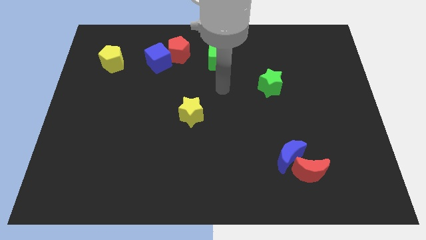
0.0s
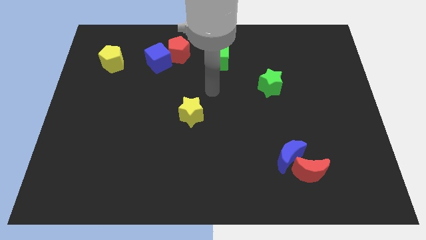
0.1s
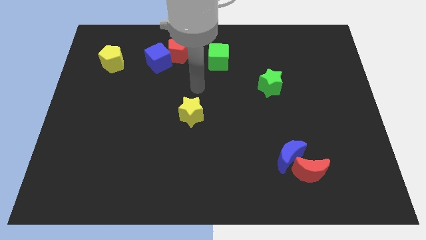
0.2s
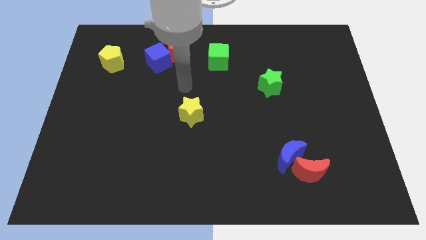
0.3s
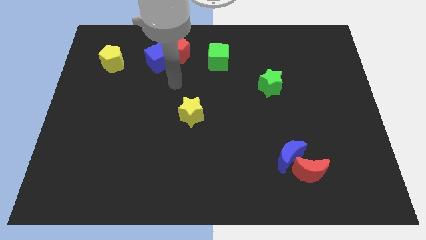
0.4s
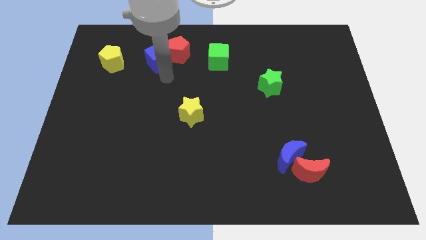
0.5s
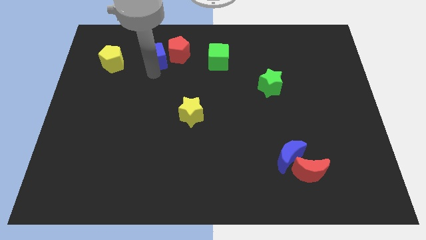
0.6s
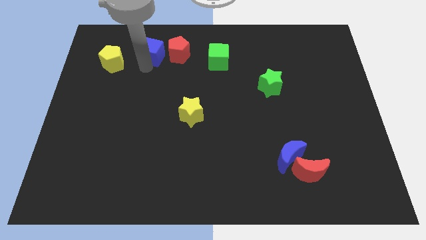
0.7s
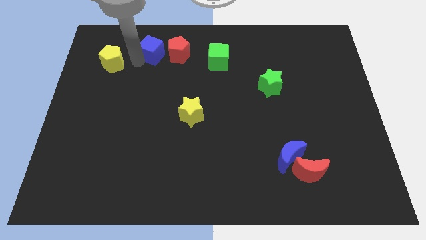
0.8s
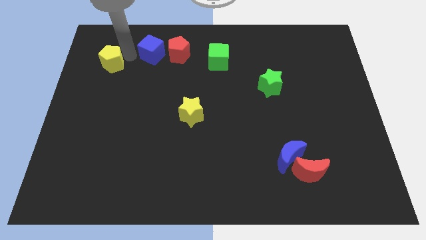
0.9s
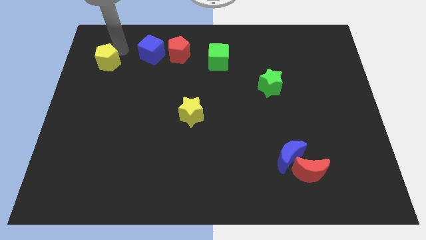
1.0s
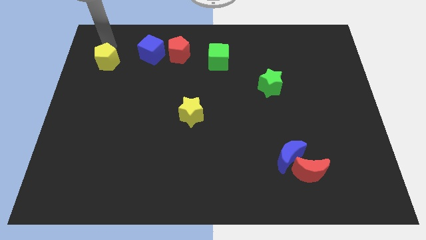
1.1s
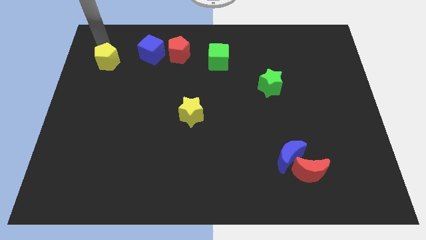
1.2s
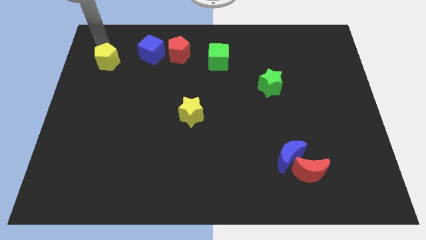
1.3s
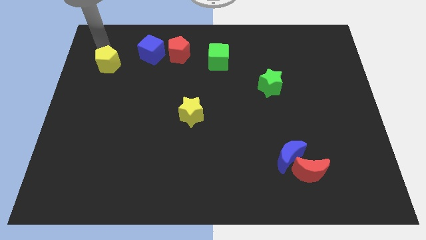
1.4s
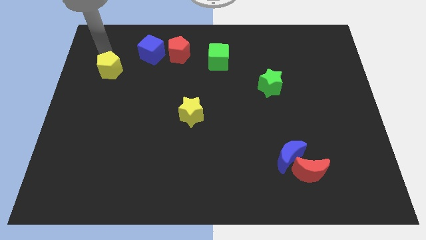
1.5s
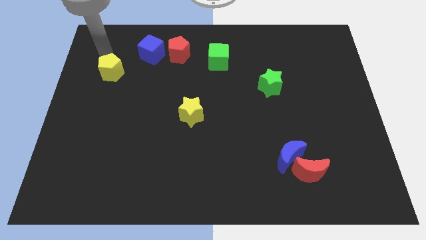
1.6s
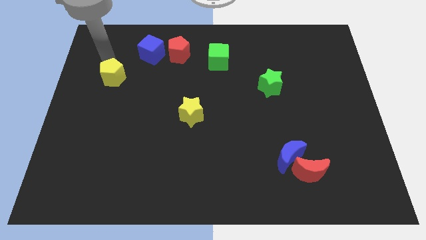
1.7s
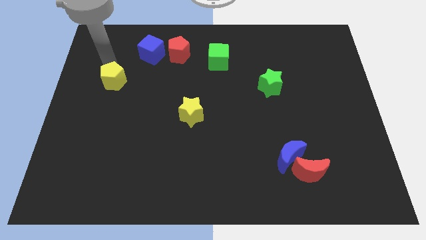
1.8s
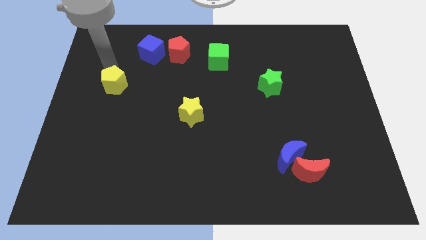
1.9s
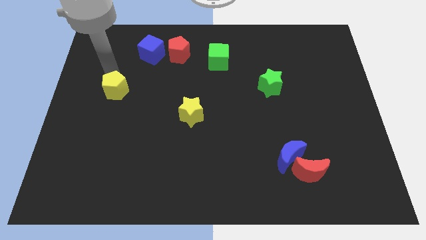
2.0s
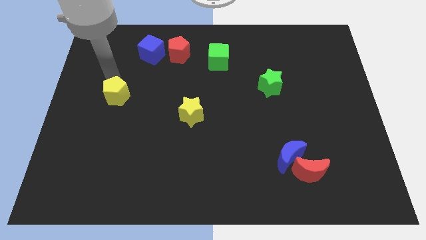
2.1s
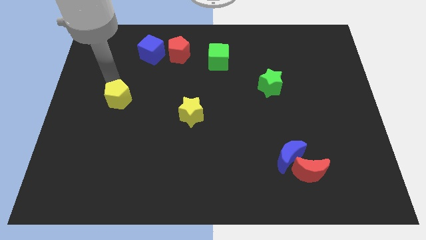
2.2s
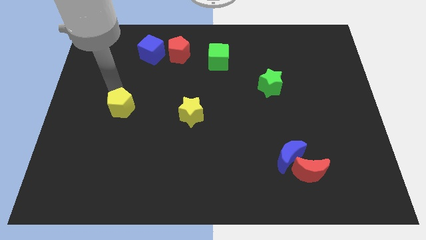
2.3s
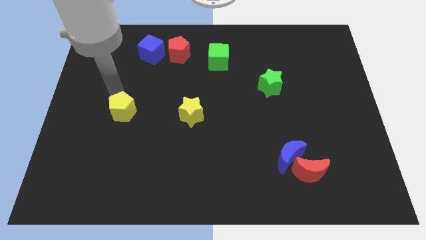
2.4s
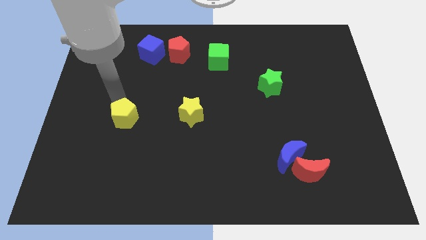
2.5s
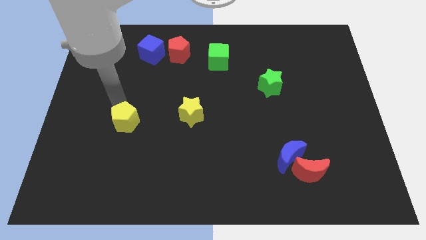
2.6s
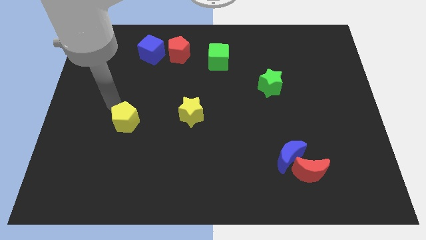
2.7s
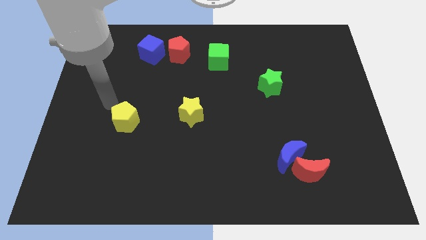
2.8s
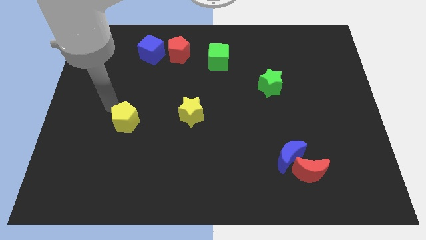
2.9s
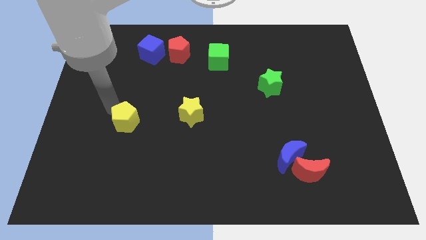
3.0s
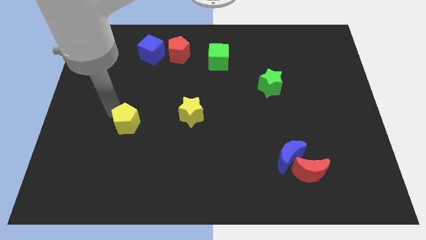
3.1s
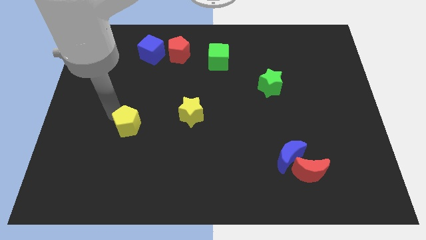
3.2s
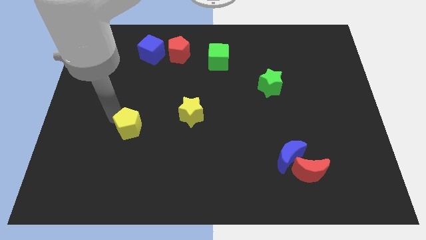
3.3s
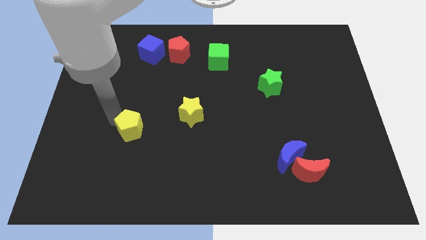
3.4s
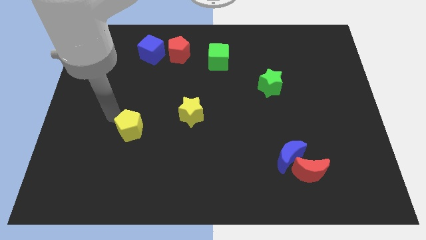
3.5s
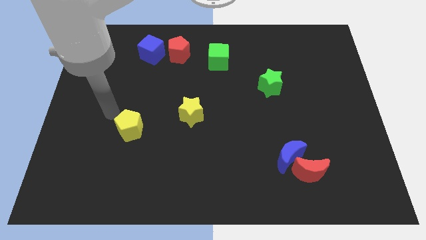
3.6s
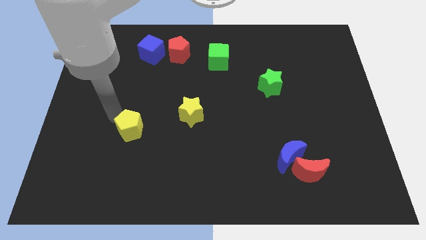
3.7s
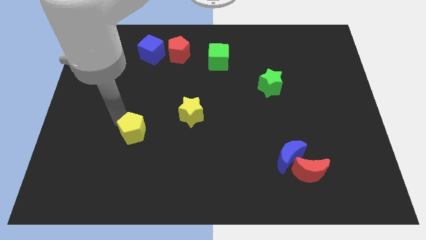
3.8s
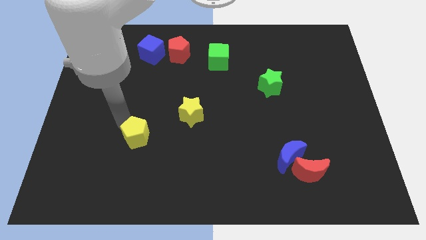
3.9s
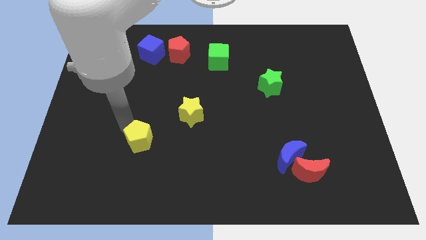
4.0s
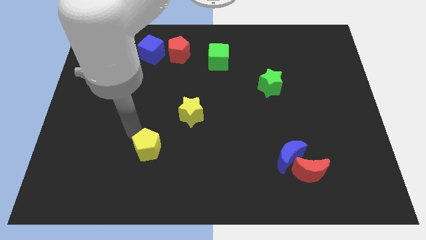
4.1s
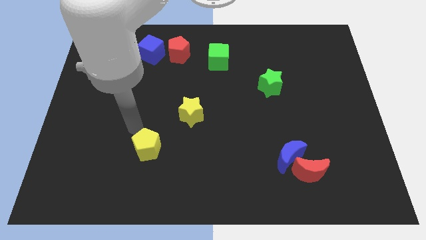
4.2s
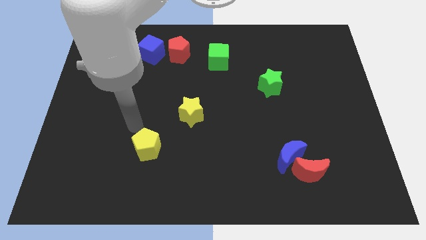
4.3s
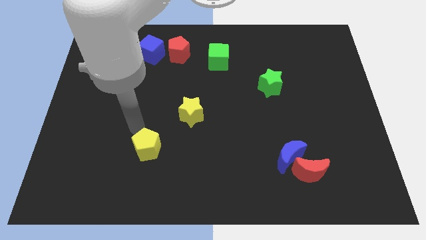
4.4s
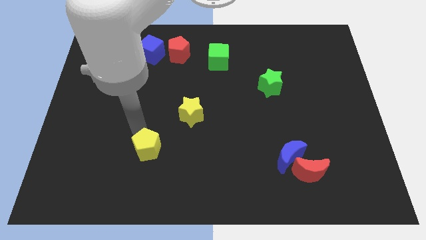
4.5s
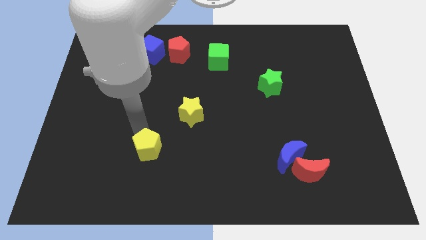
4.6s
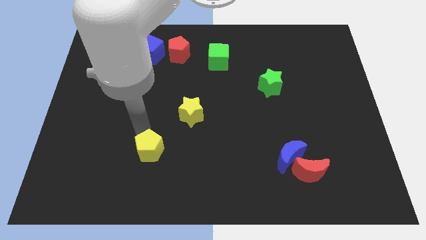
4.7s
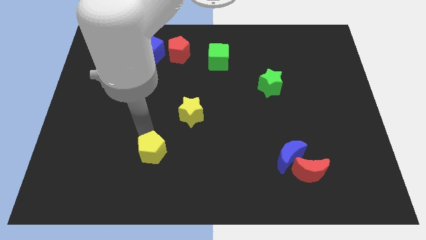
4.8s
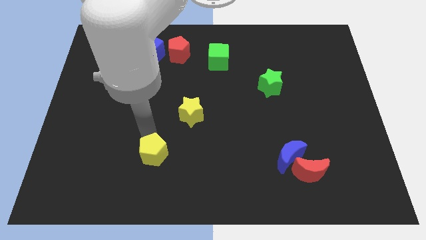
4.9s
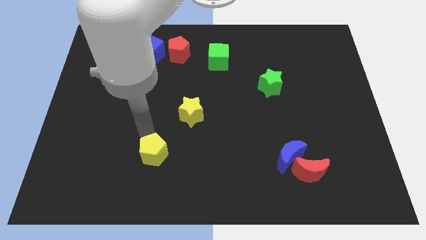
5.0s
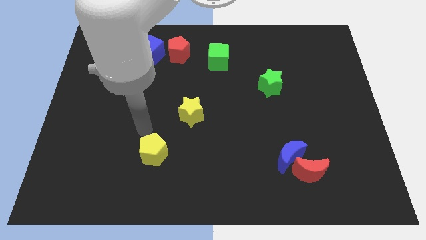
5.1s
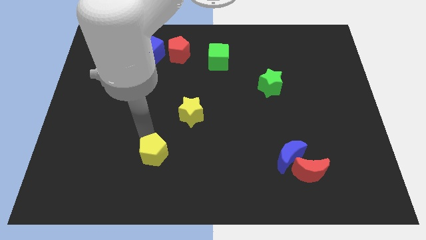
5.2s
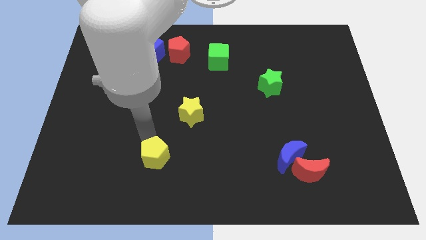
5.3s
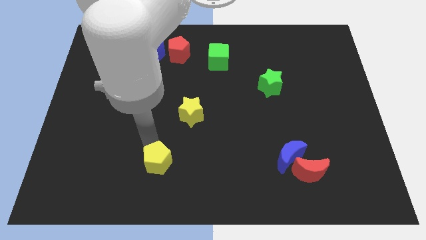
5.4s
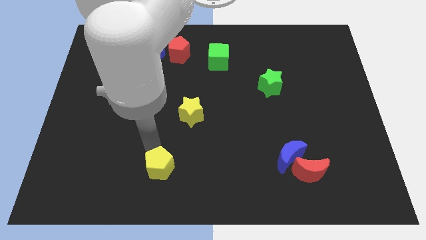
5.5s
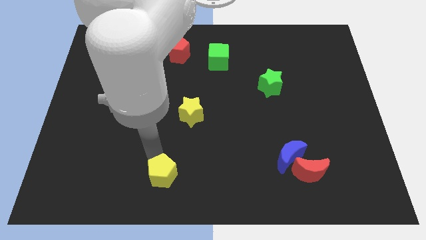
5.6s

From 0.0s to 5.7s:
put the yellow pentagon to the bottom side

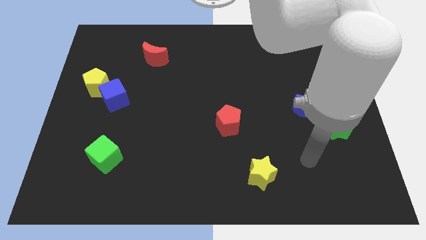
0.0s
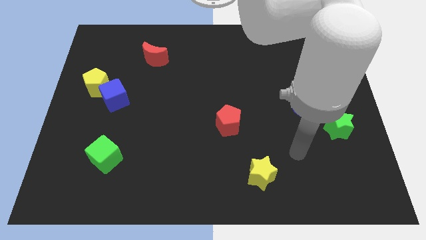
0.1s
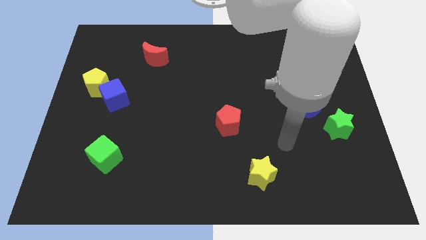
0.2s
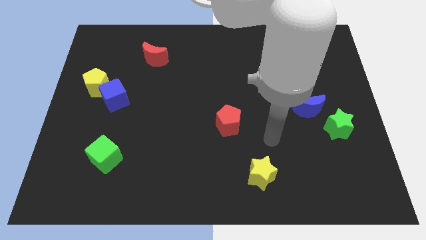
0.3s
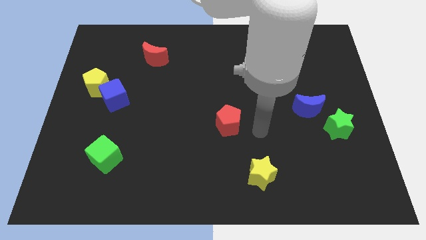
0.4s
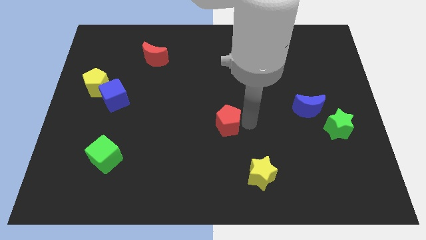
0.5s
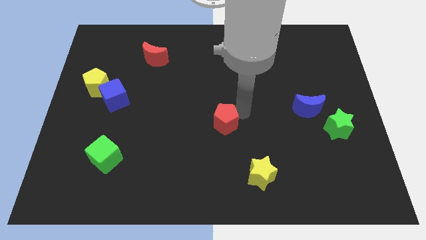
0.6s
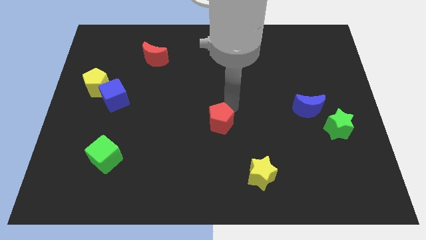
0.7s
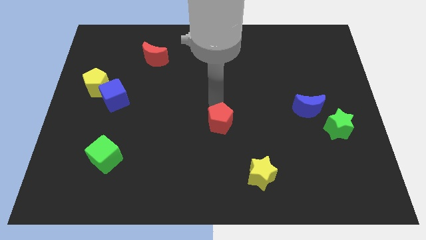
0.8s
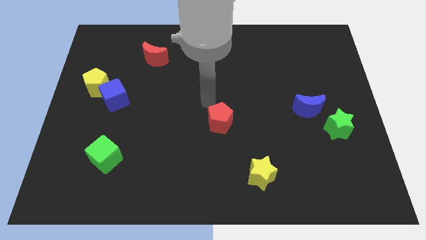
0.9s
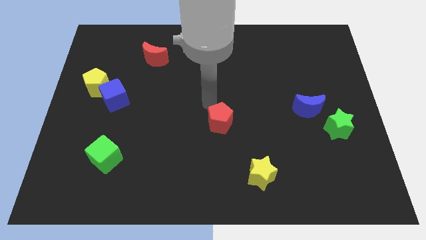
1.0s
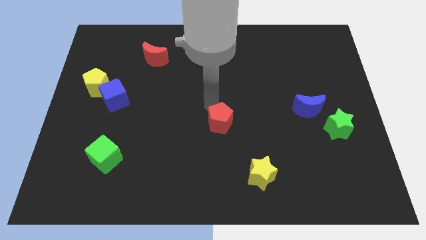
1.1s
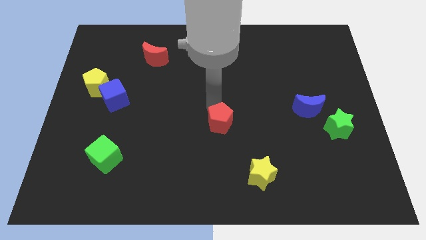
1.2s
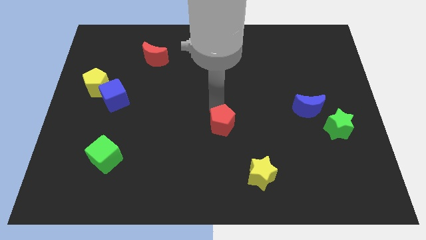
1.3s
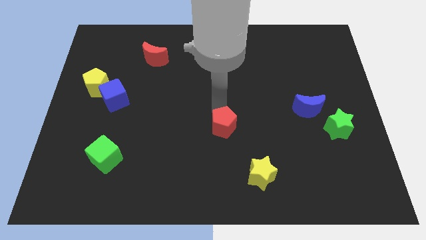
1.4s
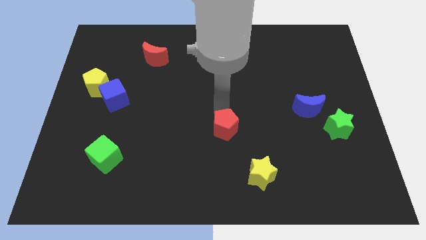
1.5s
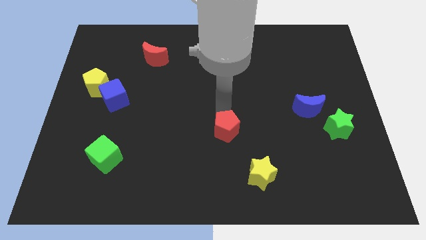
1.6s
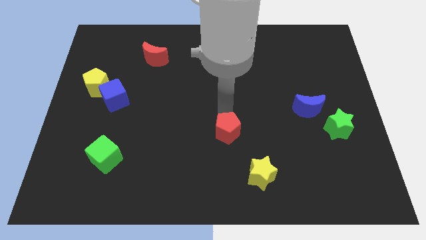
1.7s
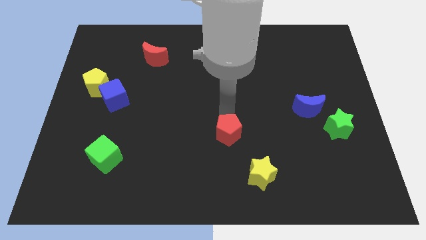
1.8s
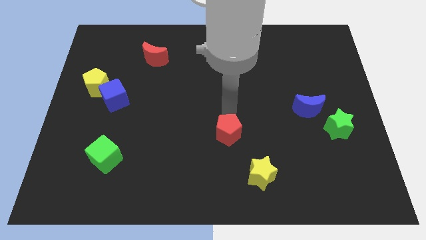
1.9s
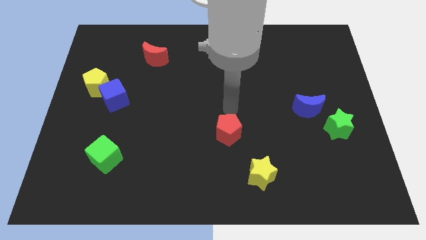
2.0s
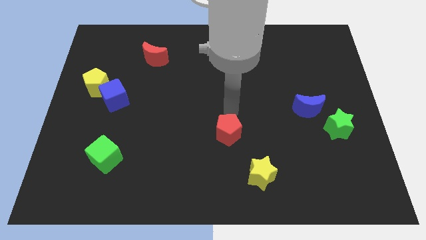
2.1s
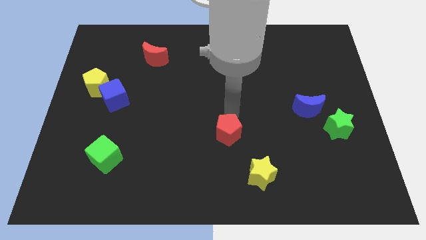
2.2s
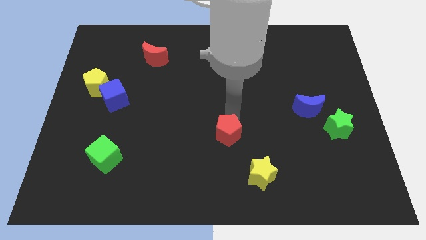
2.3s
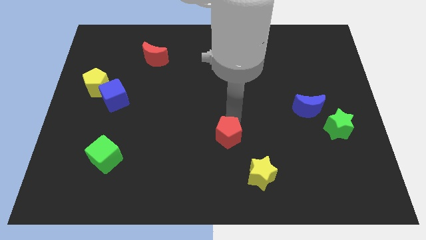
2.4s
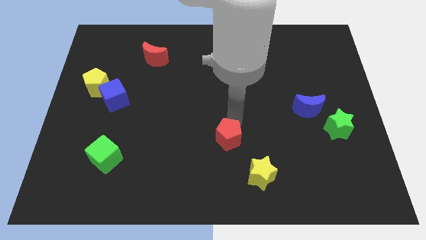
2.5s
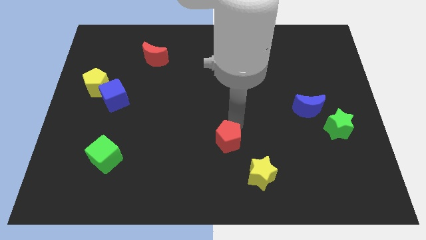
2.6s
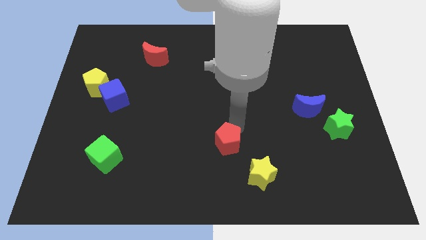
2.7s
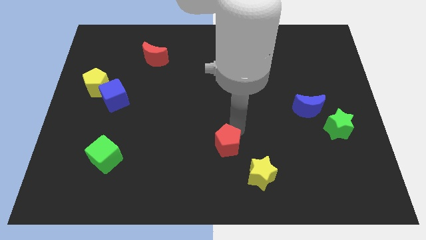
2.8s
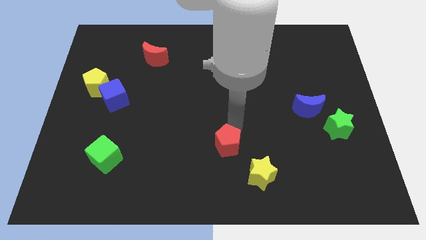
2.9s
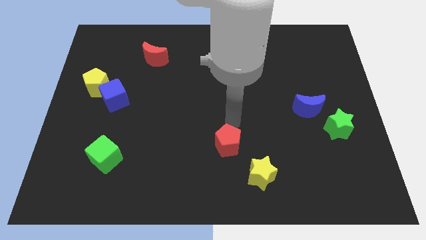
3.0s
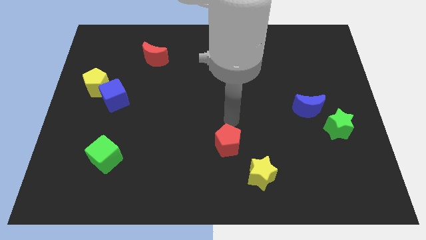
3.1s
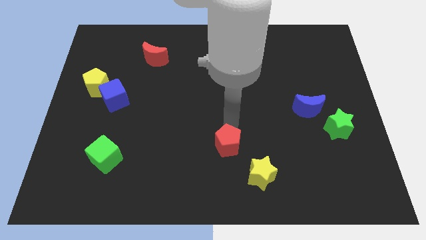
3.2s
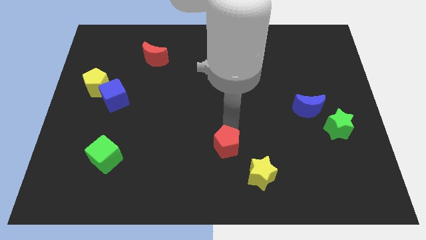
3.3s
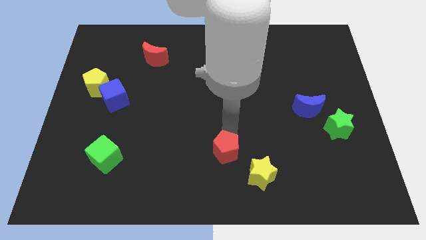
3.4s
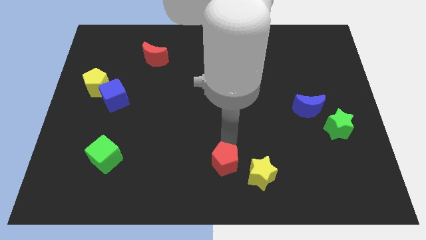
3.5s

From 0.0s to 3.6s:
move the red pentagon to the bottom
